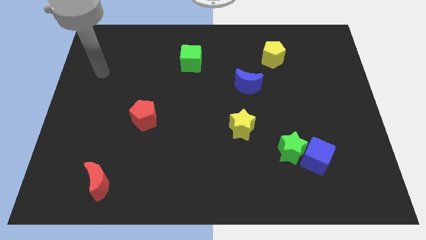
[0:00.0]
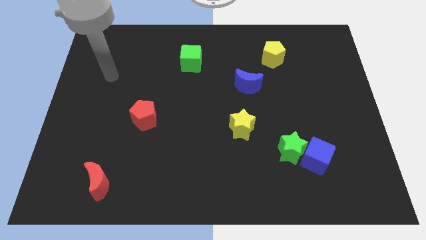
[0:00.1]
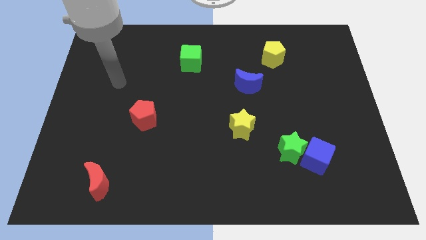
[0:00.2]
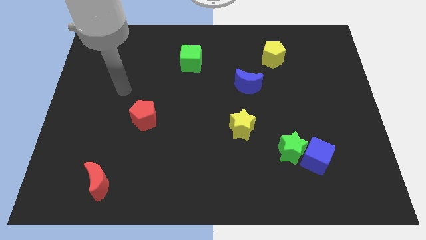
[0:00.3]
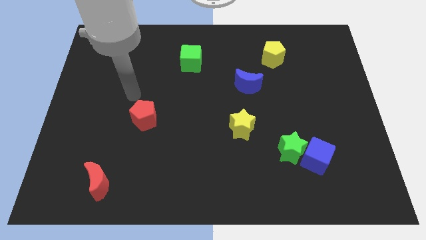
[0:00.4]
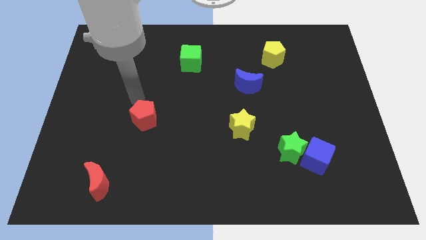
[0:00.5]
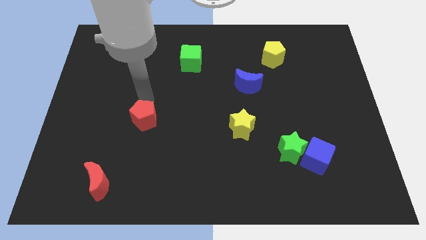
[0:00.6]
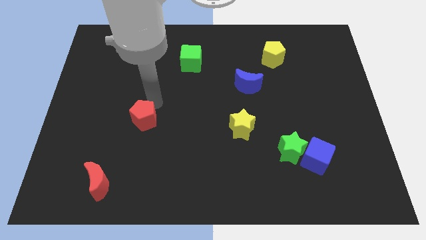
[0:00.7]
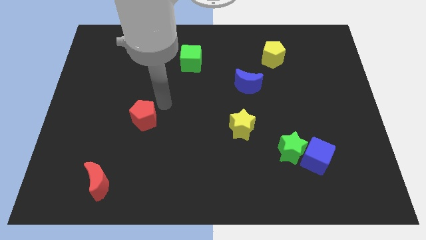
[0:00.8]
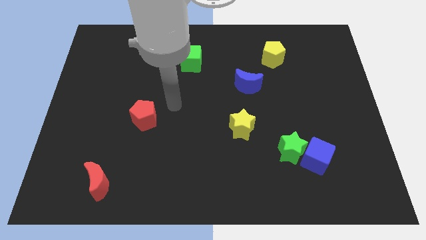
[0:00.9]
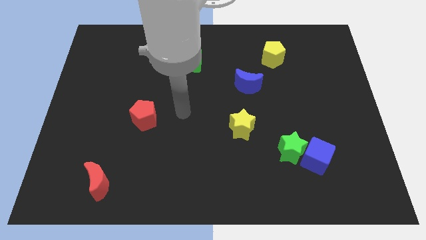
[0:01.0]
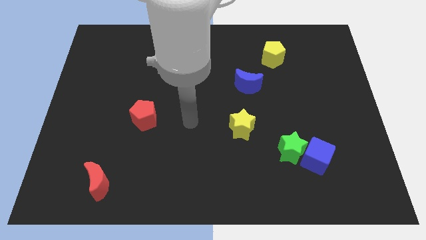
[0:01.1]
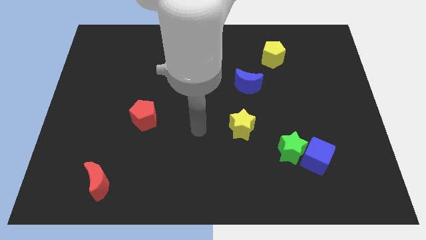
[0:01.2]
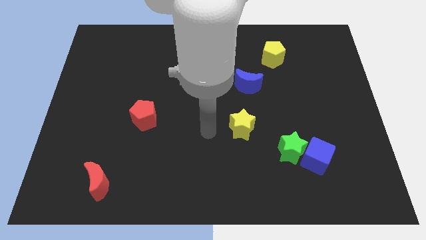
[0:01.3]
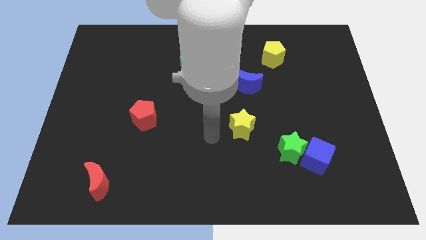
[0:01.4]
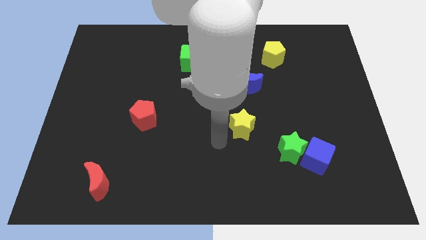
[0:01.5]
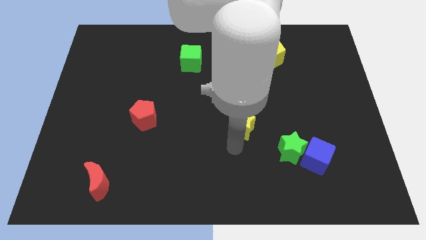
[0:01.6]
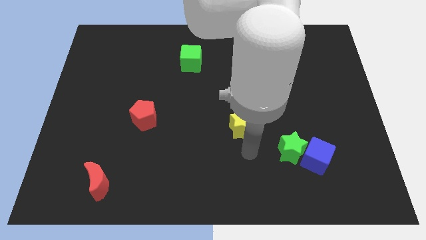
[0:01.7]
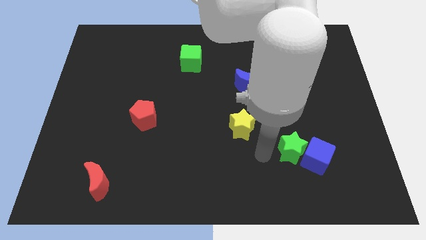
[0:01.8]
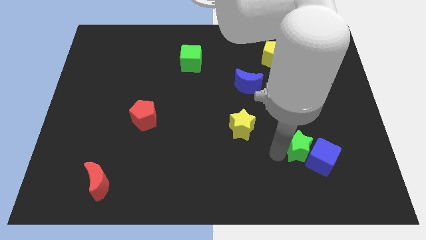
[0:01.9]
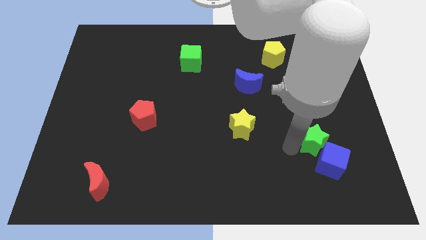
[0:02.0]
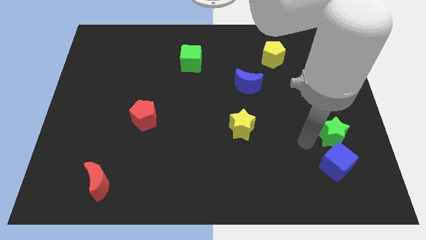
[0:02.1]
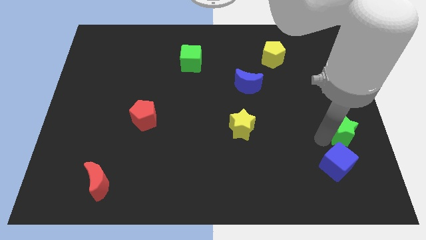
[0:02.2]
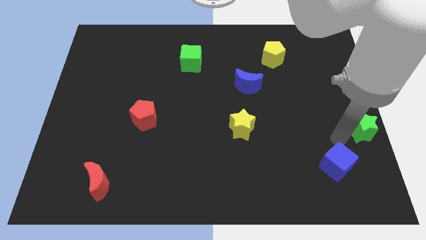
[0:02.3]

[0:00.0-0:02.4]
separate the blue cube from the green star

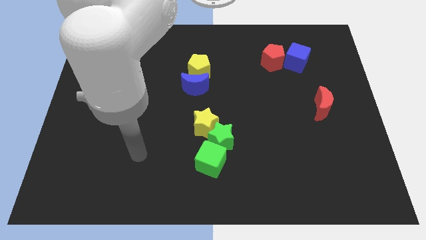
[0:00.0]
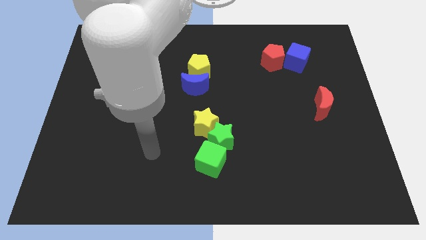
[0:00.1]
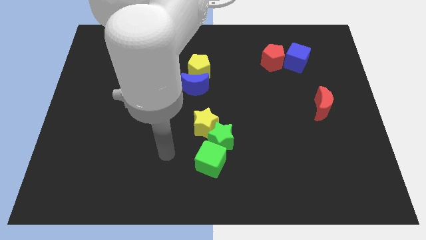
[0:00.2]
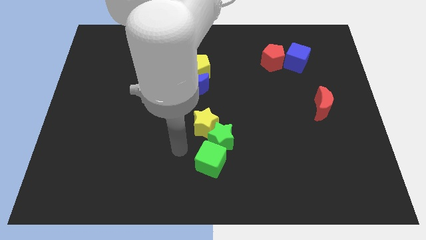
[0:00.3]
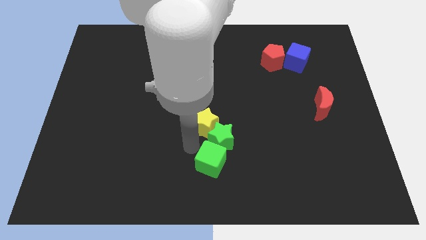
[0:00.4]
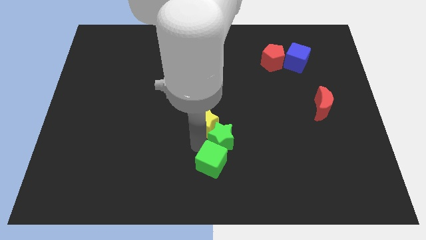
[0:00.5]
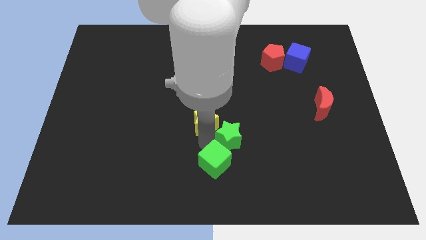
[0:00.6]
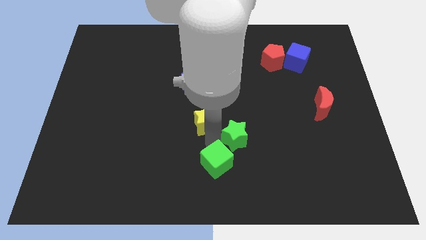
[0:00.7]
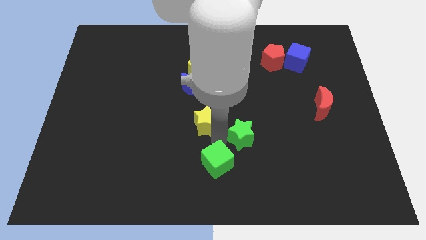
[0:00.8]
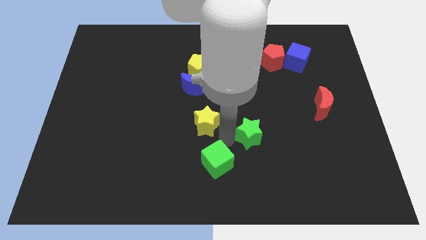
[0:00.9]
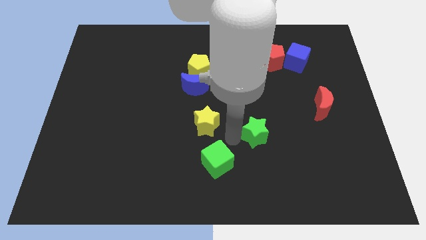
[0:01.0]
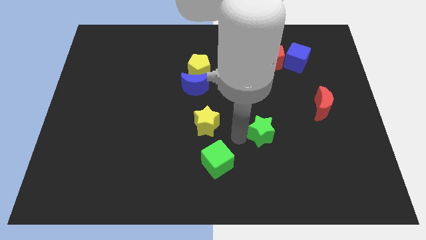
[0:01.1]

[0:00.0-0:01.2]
pull the green star apart from the yellow star and green cube

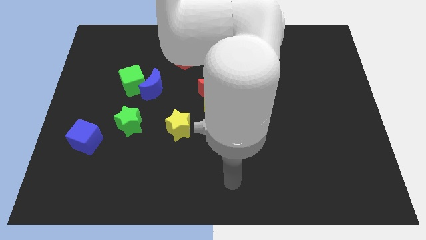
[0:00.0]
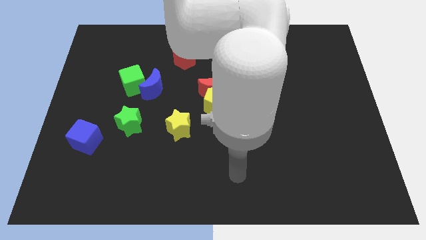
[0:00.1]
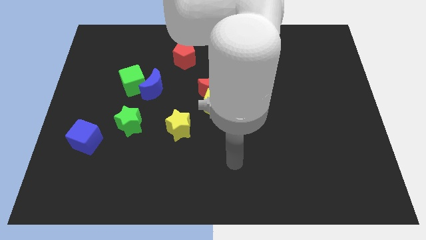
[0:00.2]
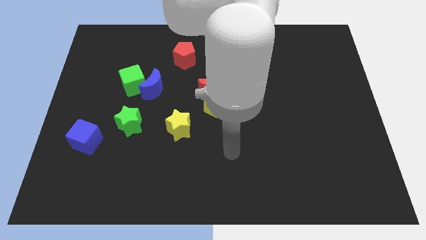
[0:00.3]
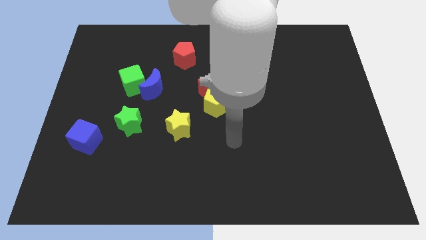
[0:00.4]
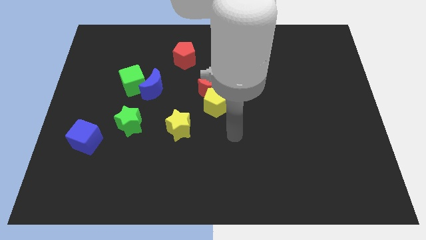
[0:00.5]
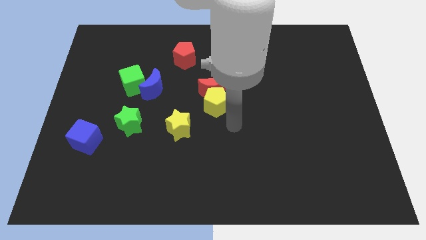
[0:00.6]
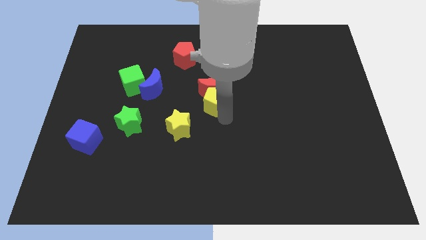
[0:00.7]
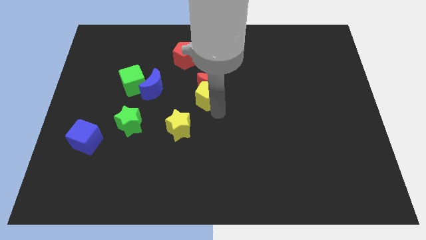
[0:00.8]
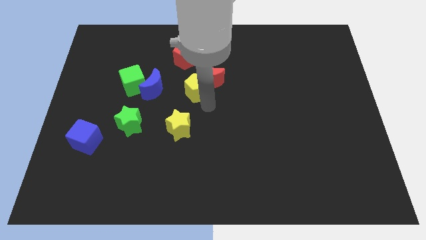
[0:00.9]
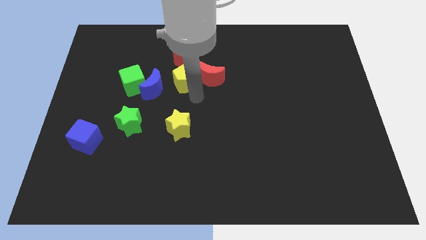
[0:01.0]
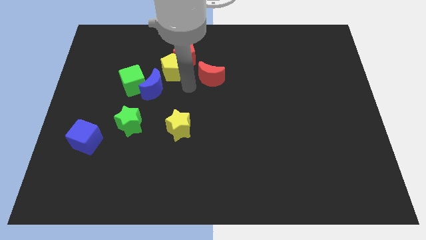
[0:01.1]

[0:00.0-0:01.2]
move the red moon away from the yellow pentagon

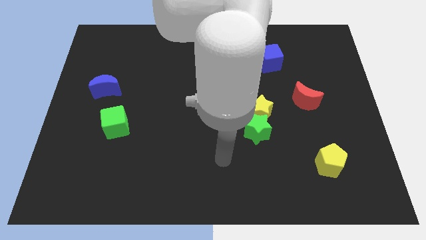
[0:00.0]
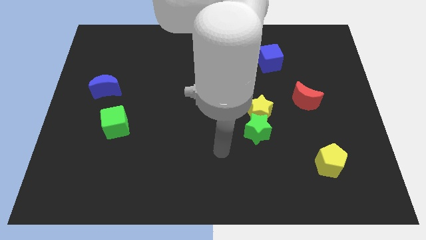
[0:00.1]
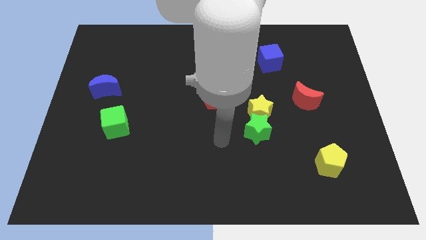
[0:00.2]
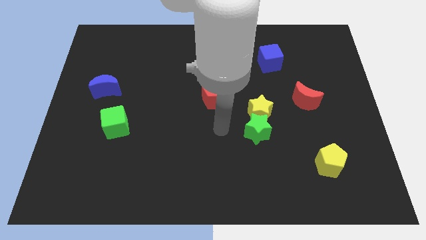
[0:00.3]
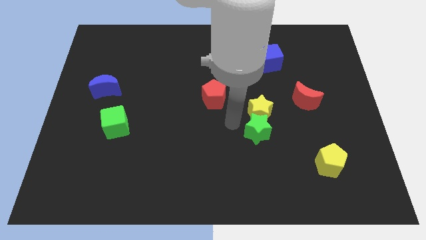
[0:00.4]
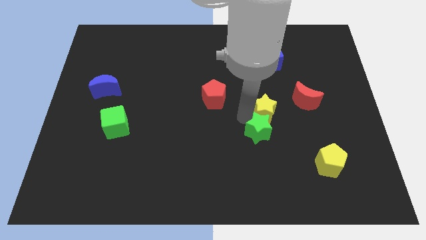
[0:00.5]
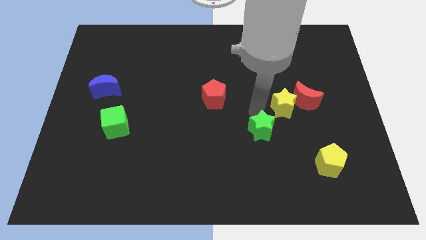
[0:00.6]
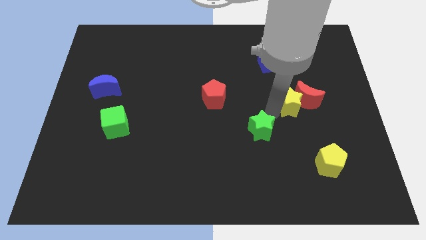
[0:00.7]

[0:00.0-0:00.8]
pull the green star apart from the yellow star

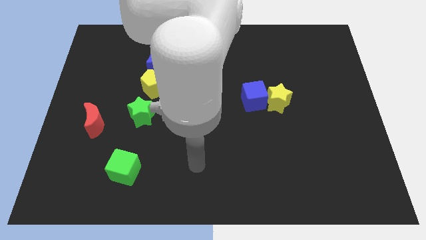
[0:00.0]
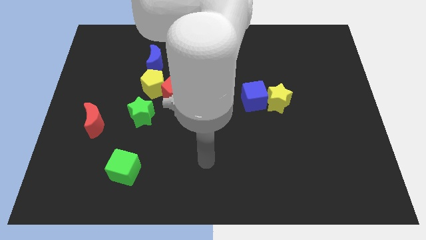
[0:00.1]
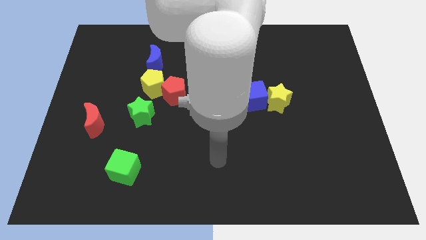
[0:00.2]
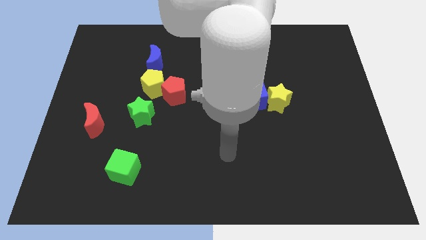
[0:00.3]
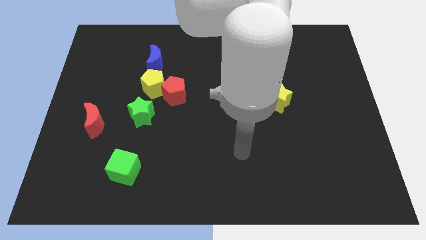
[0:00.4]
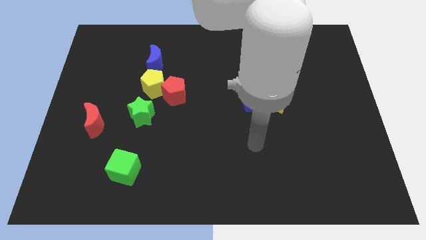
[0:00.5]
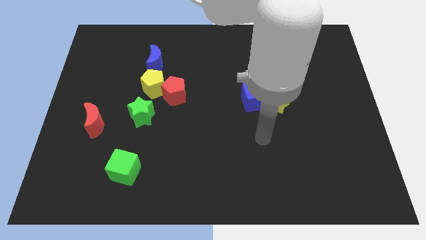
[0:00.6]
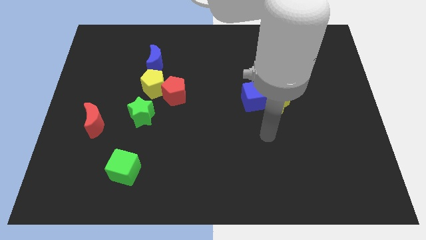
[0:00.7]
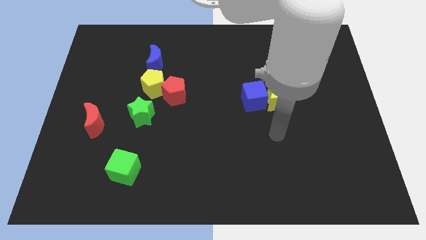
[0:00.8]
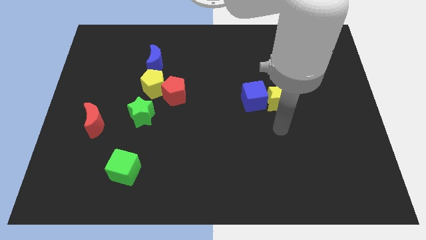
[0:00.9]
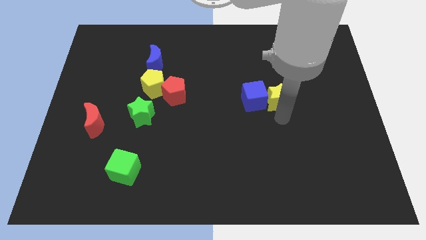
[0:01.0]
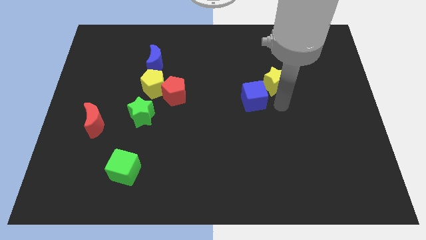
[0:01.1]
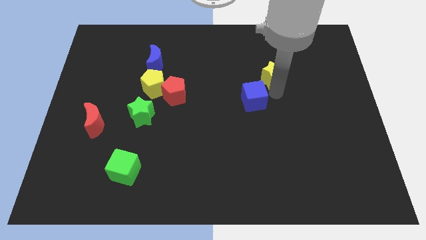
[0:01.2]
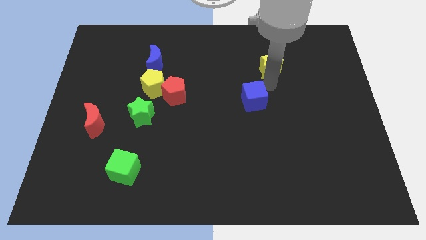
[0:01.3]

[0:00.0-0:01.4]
pull the blue cube apart from the yellow star

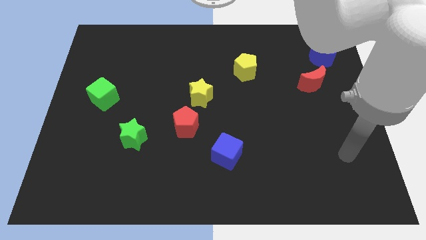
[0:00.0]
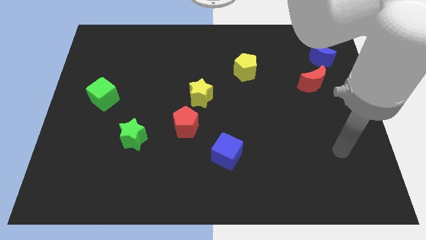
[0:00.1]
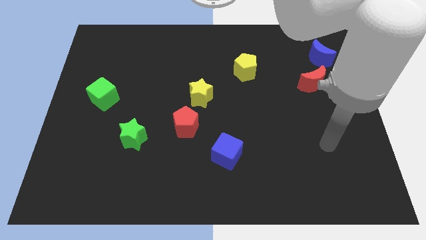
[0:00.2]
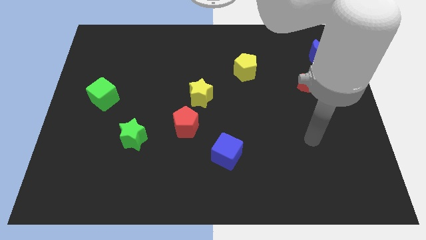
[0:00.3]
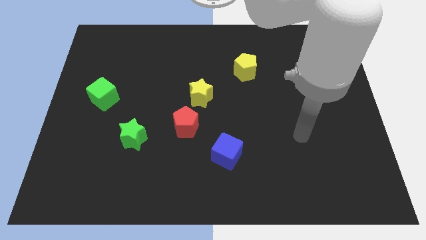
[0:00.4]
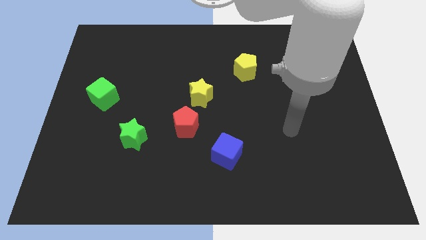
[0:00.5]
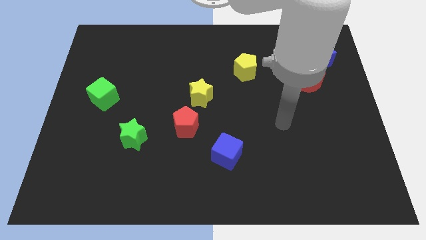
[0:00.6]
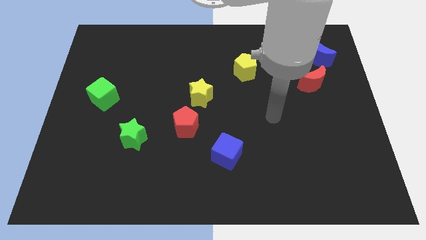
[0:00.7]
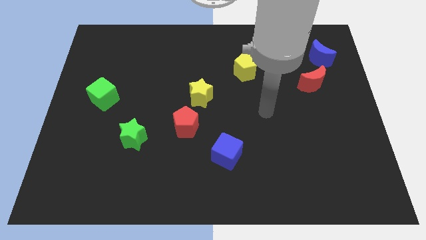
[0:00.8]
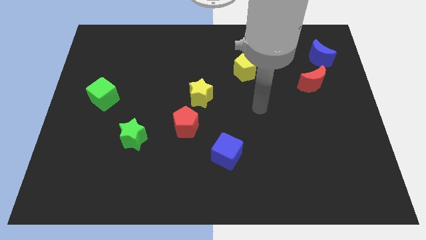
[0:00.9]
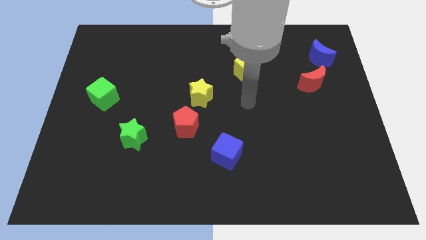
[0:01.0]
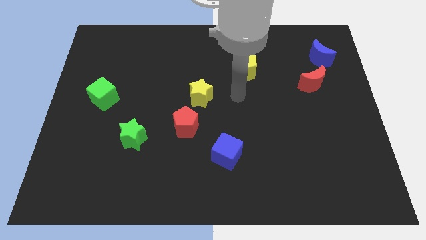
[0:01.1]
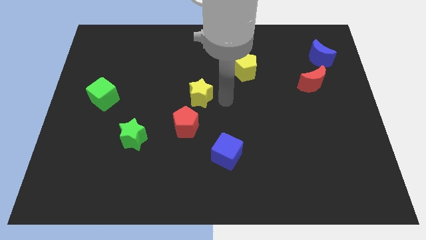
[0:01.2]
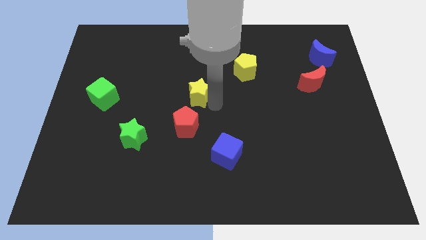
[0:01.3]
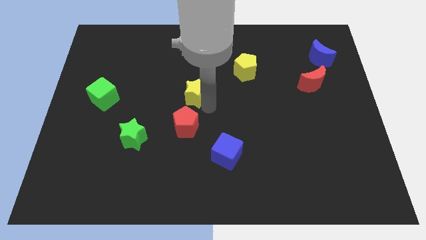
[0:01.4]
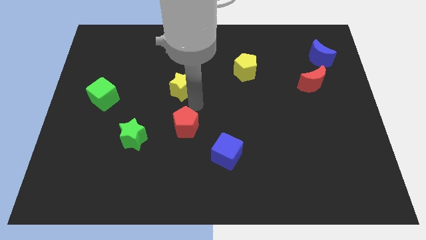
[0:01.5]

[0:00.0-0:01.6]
pull the red pentagon apart from the yellow star

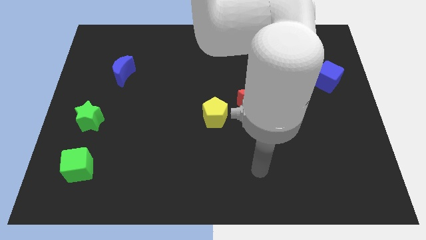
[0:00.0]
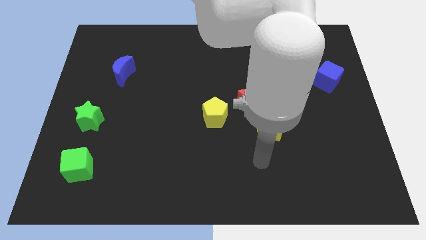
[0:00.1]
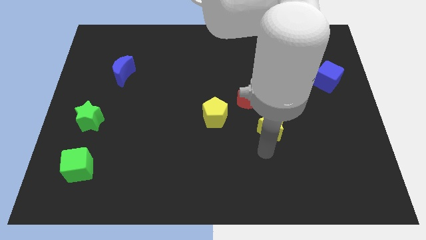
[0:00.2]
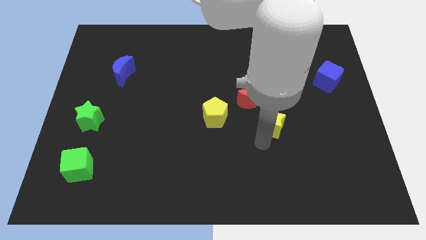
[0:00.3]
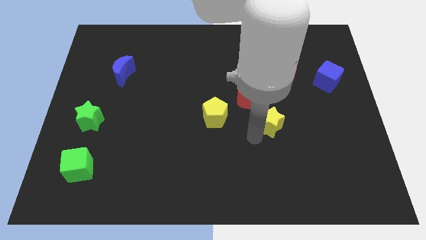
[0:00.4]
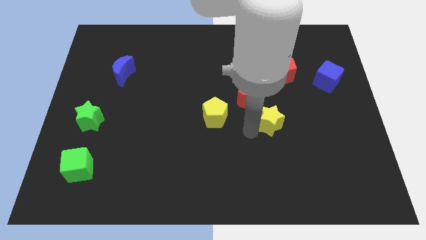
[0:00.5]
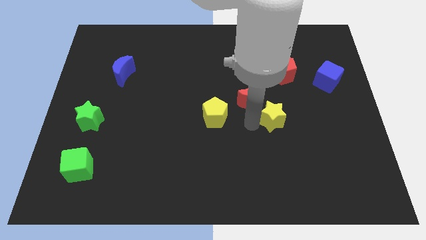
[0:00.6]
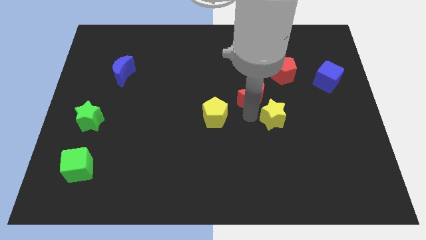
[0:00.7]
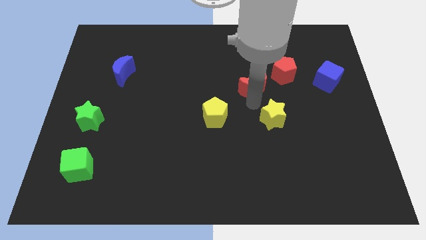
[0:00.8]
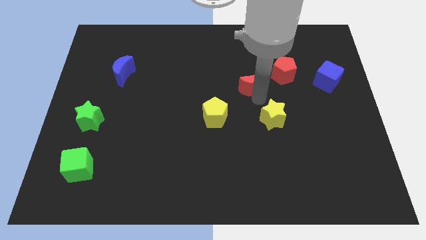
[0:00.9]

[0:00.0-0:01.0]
move the yellow star away from the red moon
